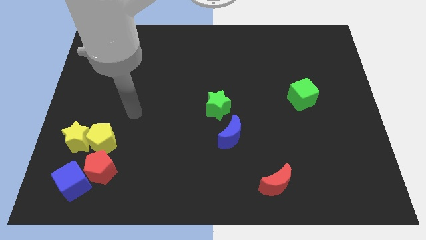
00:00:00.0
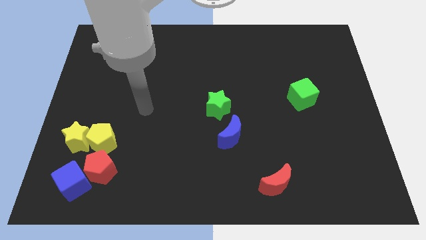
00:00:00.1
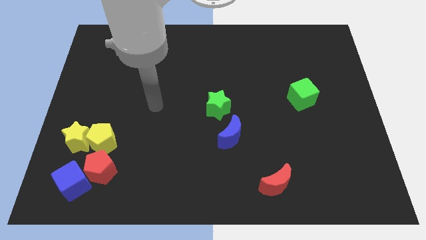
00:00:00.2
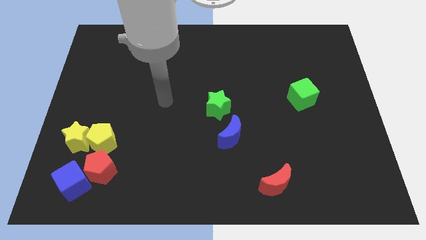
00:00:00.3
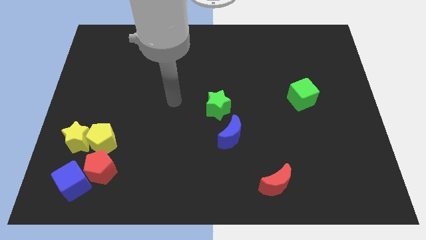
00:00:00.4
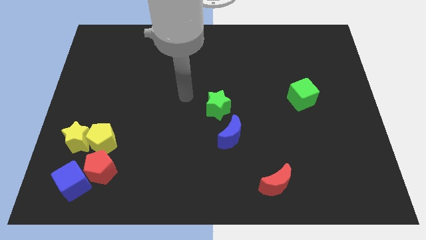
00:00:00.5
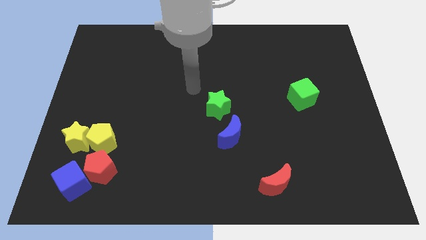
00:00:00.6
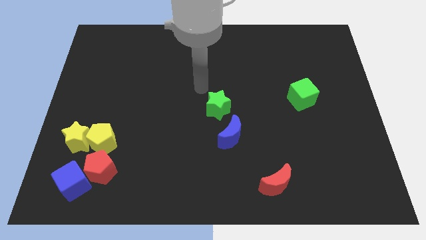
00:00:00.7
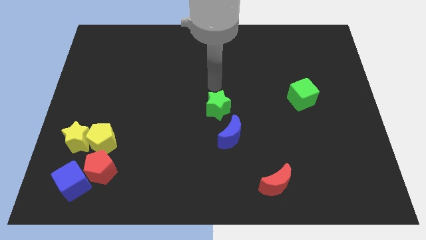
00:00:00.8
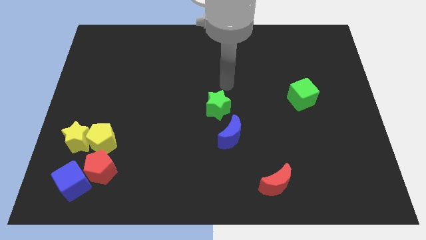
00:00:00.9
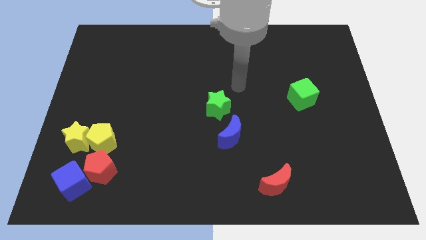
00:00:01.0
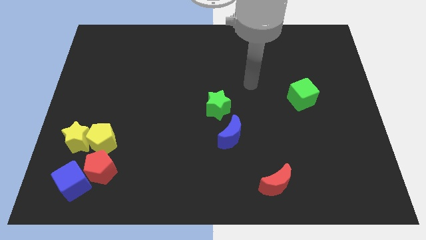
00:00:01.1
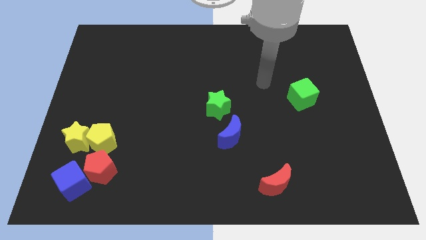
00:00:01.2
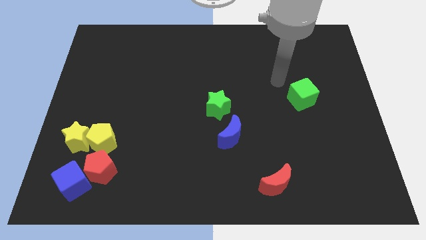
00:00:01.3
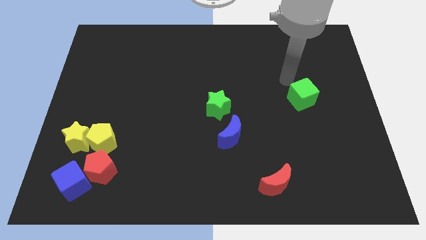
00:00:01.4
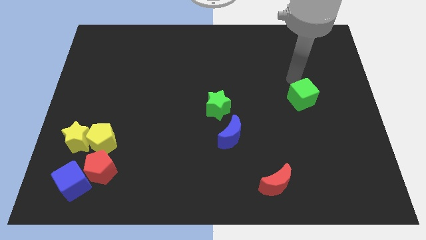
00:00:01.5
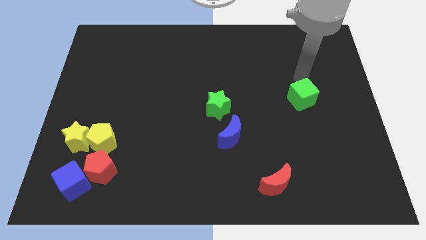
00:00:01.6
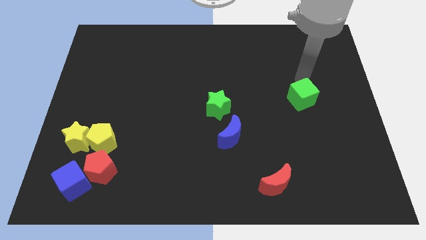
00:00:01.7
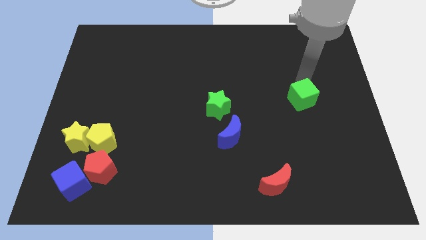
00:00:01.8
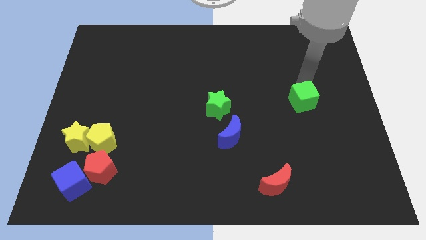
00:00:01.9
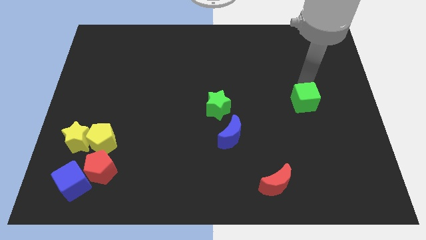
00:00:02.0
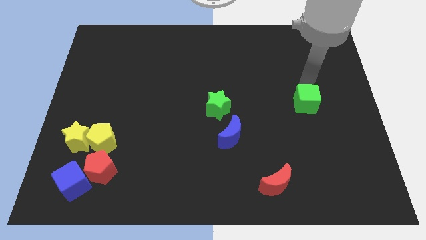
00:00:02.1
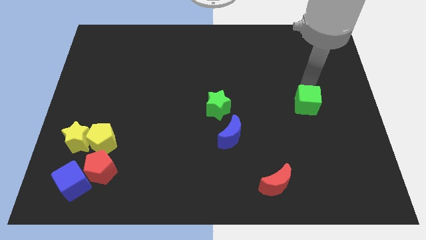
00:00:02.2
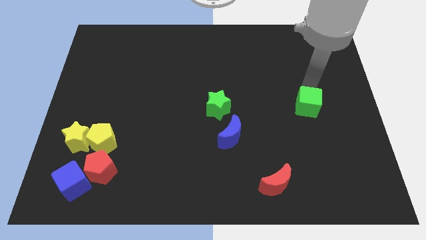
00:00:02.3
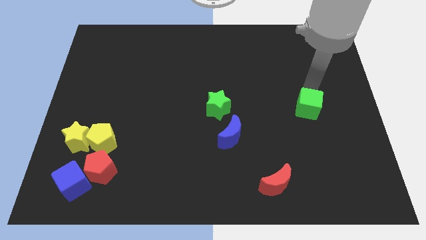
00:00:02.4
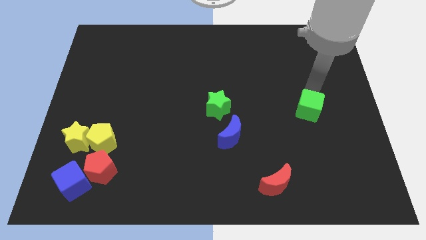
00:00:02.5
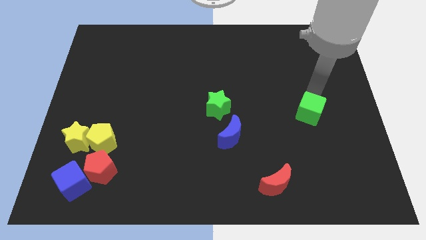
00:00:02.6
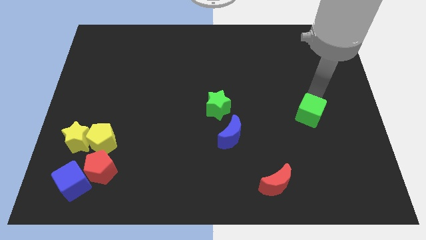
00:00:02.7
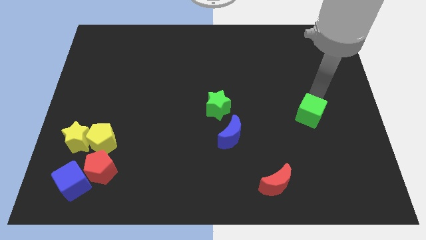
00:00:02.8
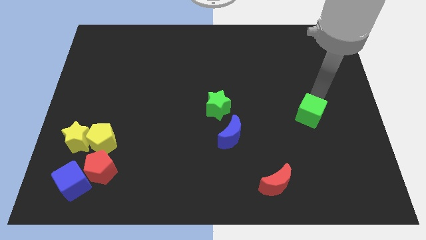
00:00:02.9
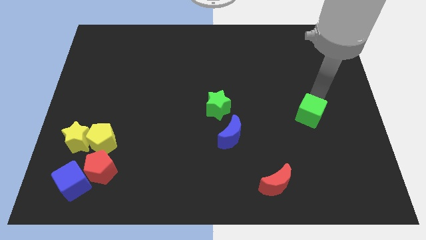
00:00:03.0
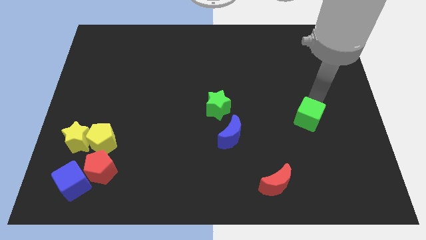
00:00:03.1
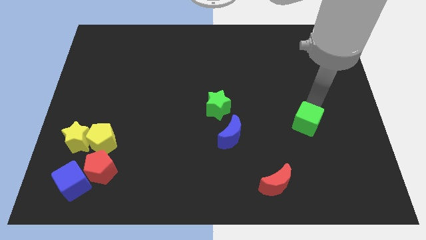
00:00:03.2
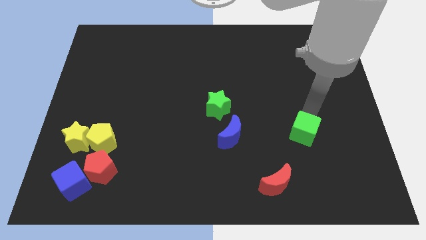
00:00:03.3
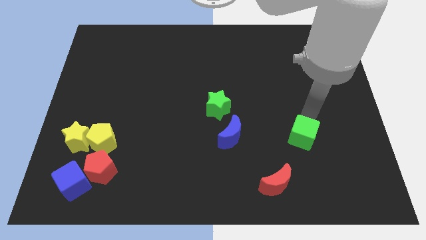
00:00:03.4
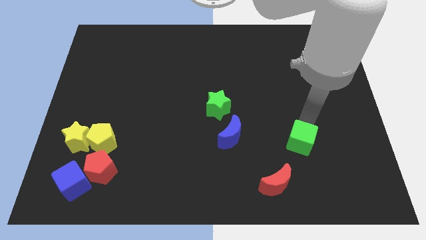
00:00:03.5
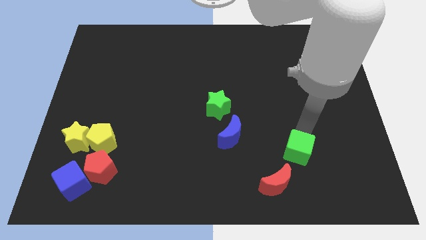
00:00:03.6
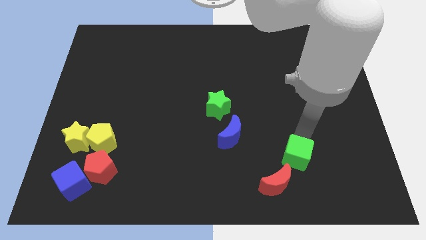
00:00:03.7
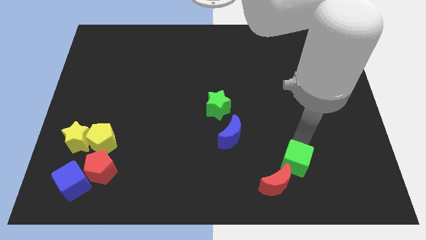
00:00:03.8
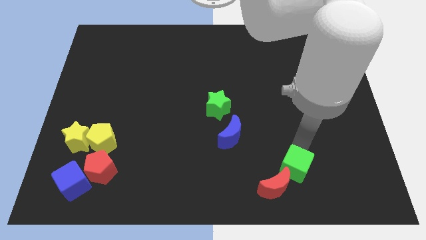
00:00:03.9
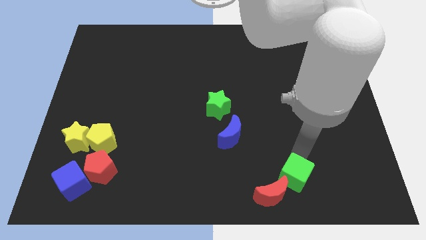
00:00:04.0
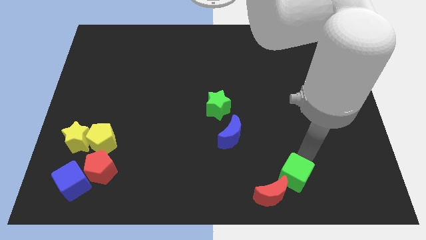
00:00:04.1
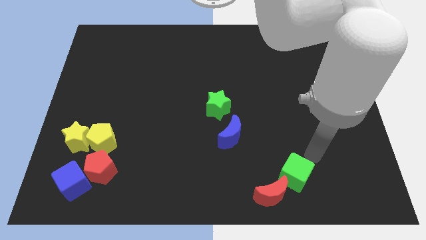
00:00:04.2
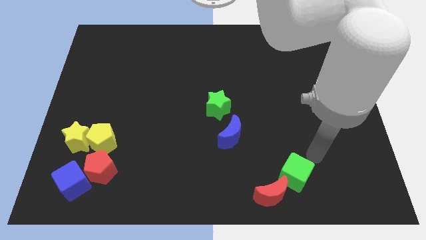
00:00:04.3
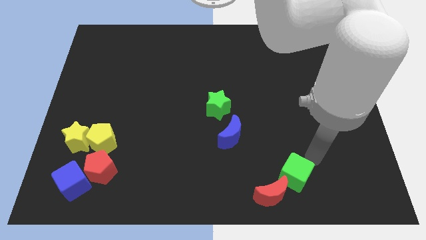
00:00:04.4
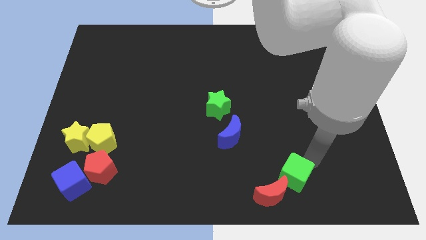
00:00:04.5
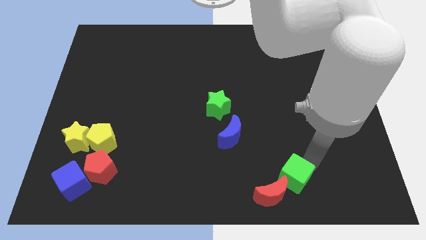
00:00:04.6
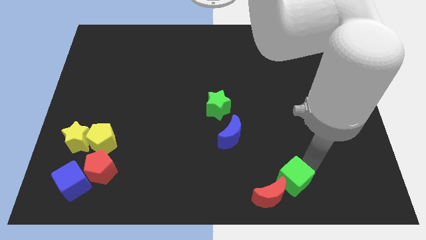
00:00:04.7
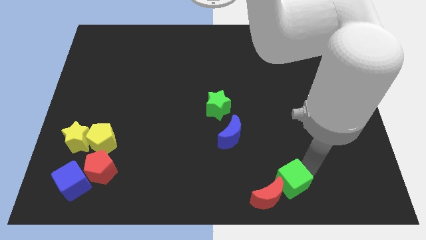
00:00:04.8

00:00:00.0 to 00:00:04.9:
put the green cube towards the red moon

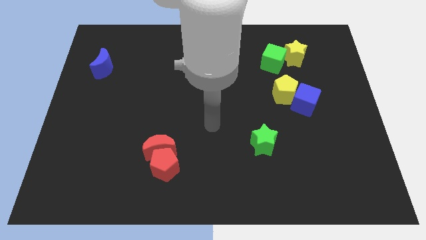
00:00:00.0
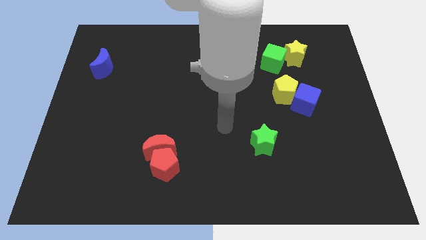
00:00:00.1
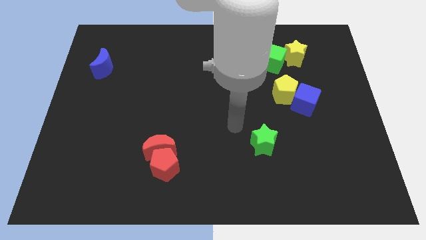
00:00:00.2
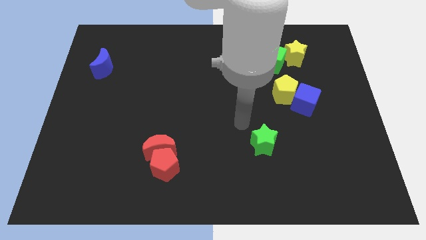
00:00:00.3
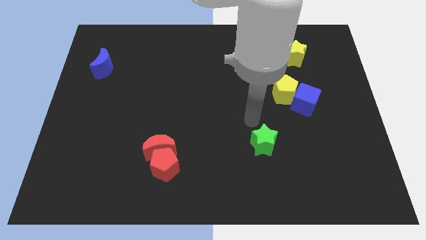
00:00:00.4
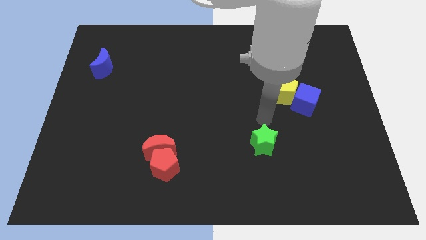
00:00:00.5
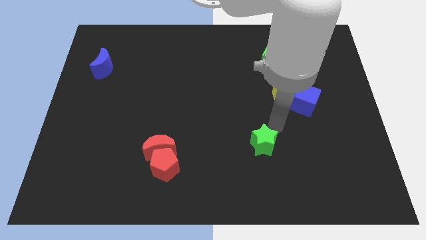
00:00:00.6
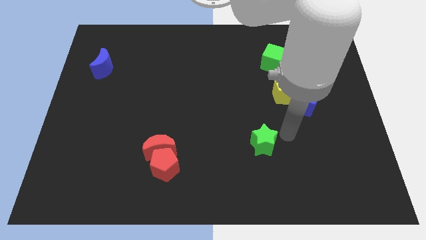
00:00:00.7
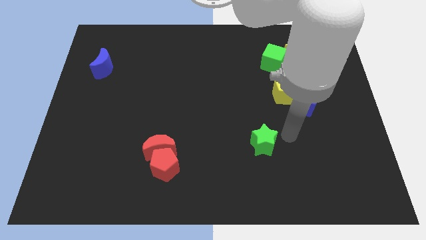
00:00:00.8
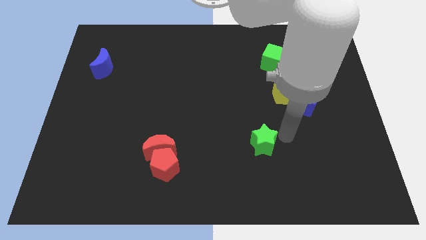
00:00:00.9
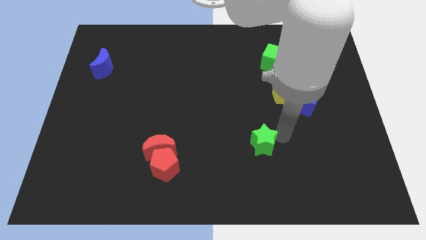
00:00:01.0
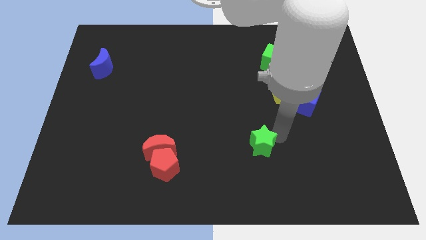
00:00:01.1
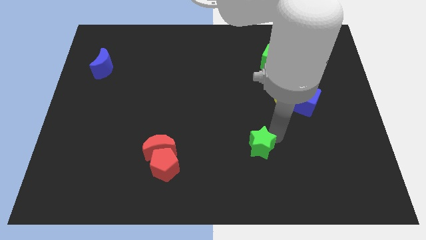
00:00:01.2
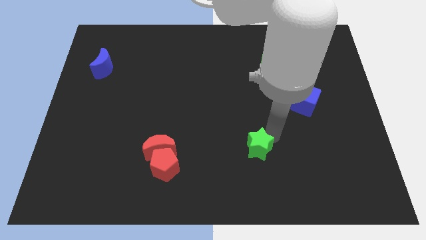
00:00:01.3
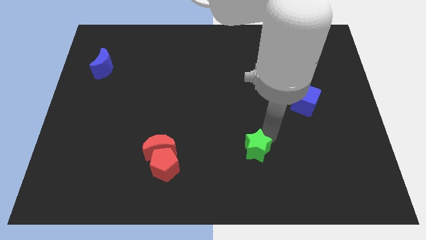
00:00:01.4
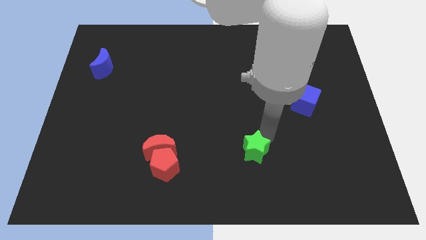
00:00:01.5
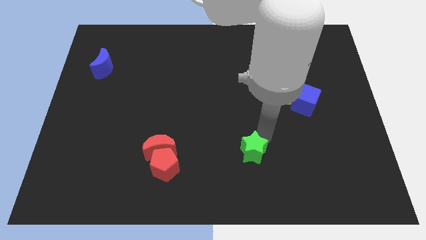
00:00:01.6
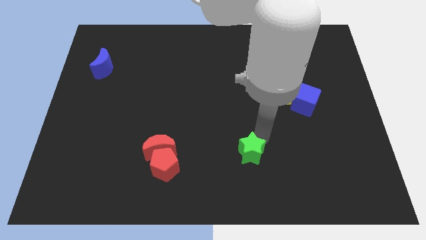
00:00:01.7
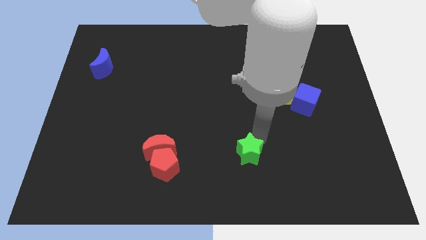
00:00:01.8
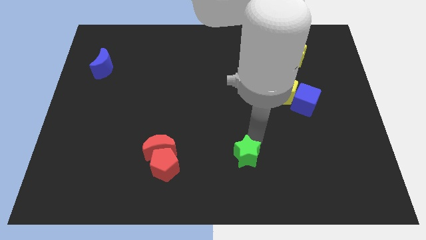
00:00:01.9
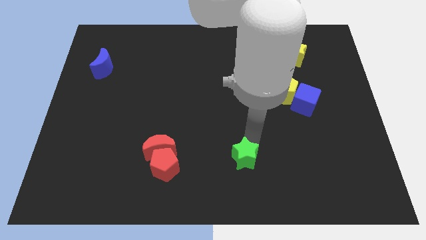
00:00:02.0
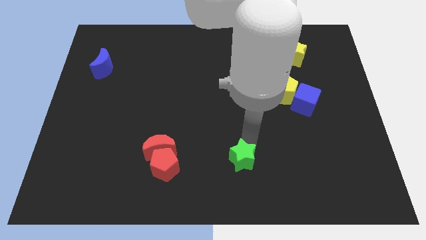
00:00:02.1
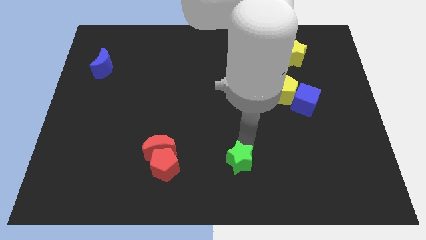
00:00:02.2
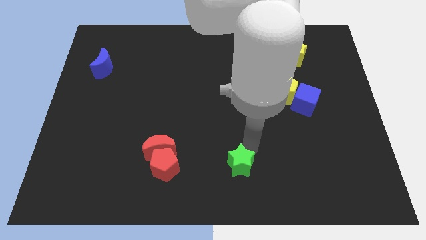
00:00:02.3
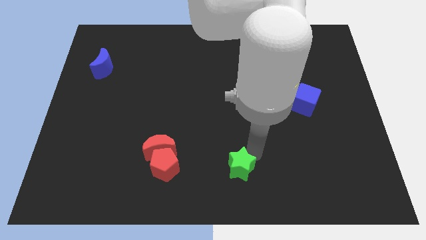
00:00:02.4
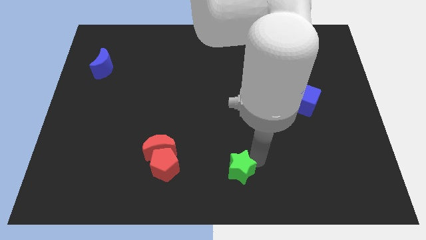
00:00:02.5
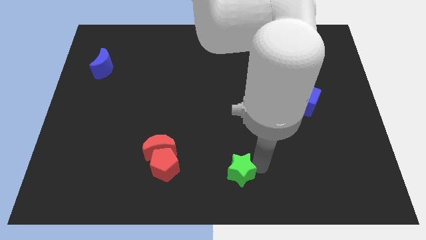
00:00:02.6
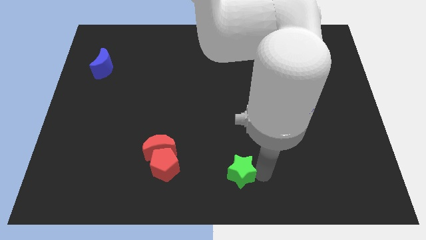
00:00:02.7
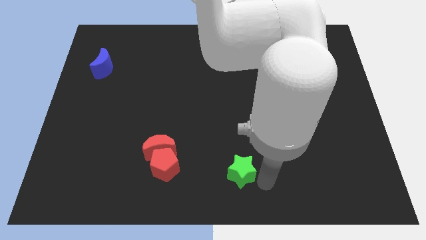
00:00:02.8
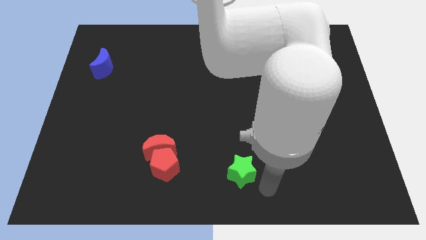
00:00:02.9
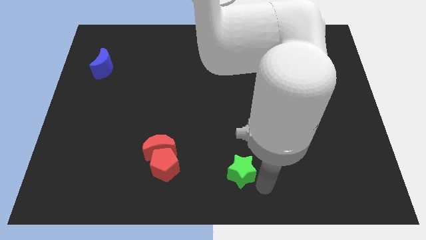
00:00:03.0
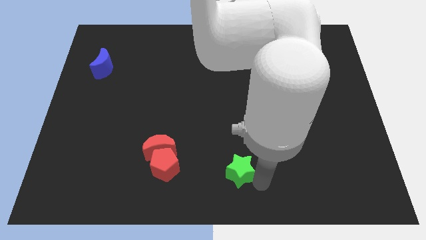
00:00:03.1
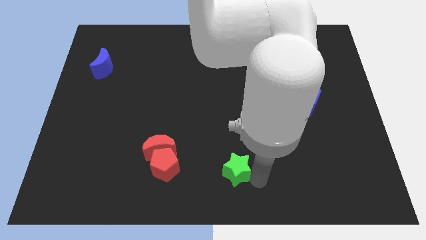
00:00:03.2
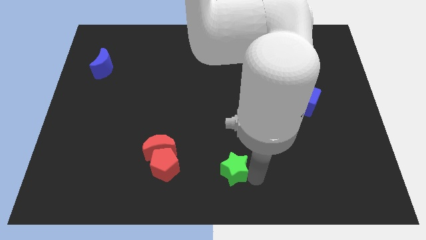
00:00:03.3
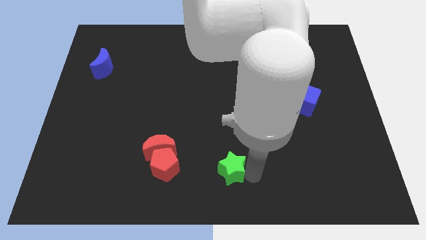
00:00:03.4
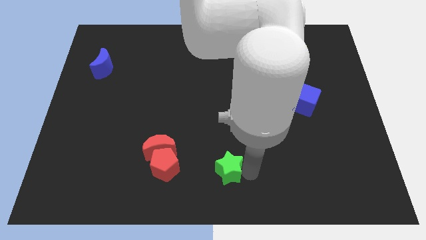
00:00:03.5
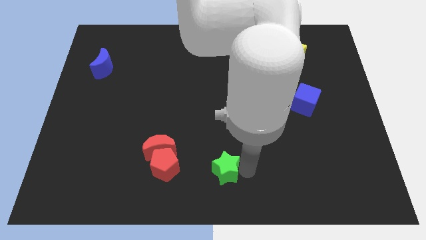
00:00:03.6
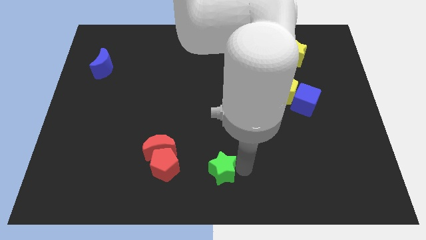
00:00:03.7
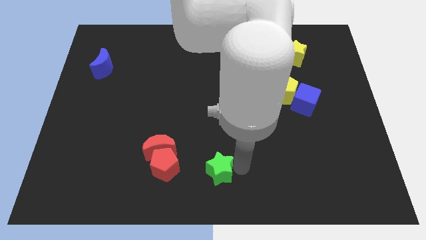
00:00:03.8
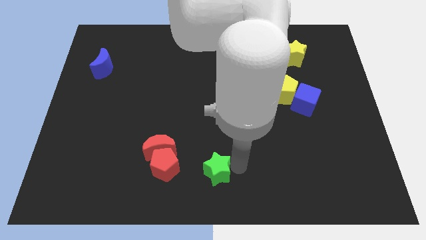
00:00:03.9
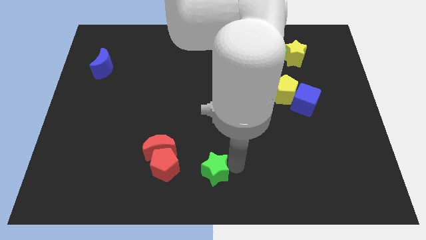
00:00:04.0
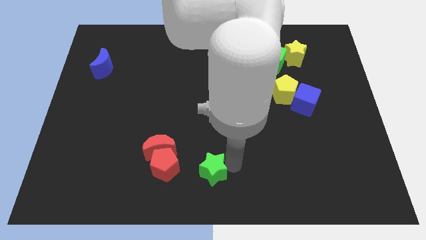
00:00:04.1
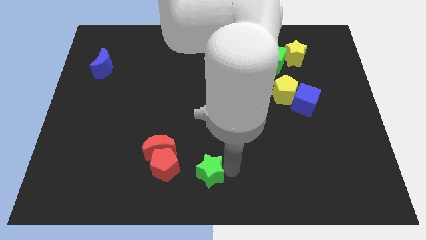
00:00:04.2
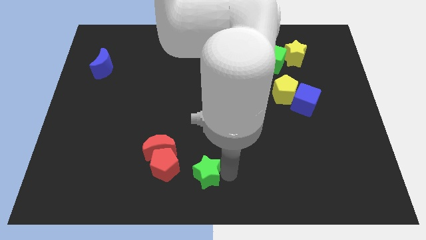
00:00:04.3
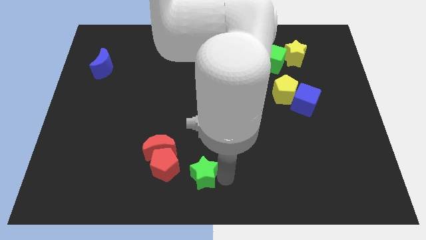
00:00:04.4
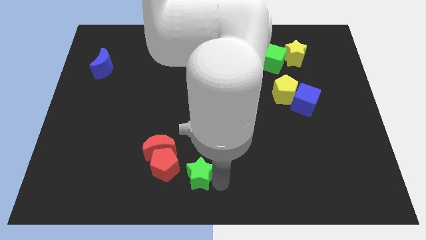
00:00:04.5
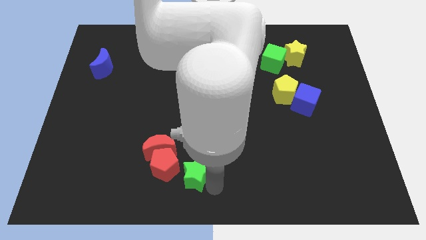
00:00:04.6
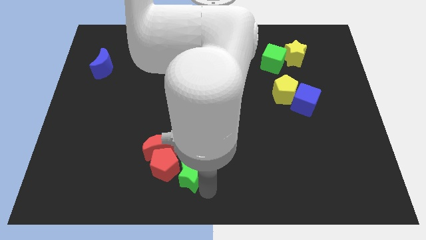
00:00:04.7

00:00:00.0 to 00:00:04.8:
put the green star towards the red pentagon
